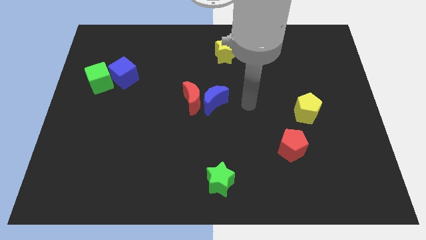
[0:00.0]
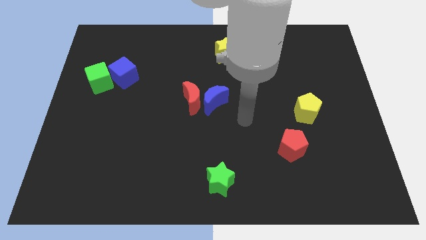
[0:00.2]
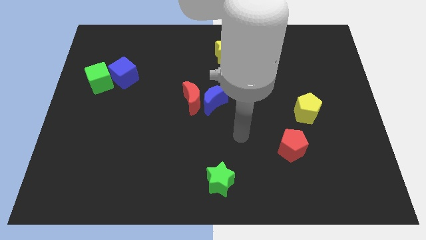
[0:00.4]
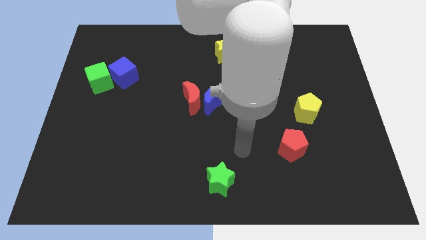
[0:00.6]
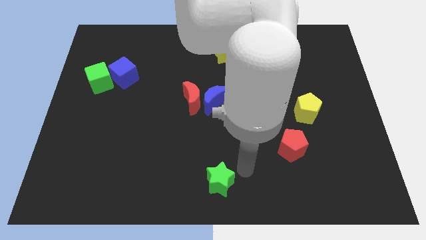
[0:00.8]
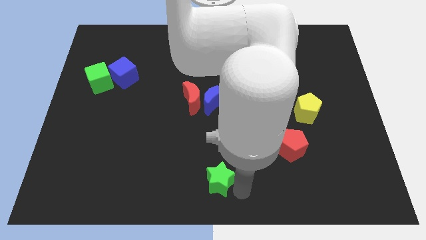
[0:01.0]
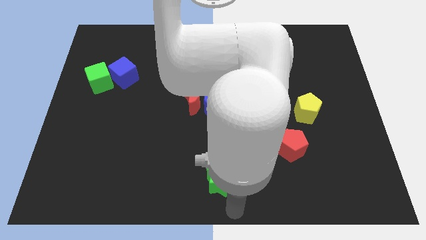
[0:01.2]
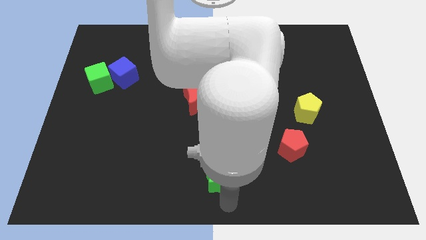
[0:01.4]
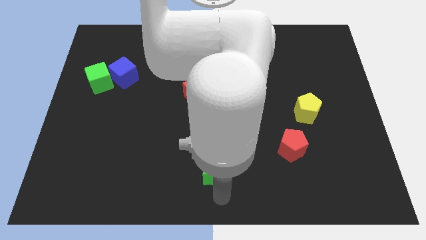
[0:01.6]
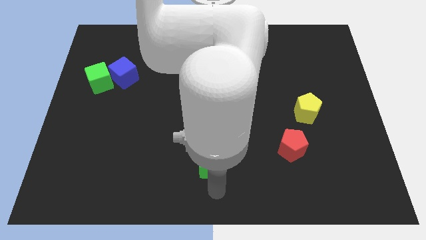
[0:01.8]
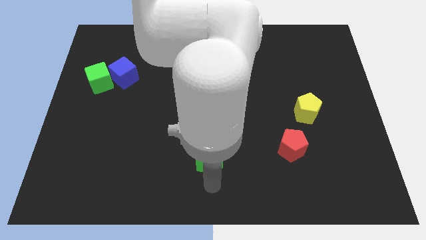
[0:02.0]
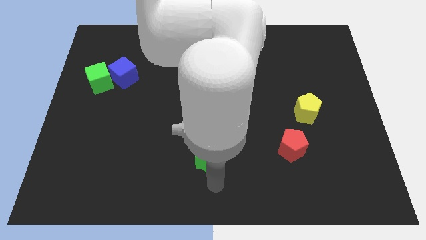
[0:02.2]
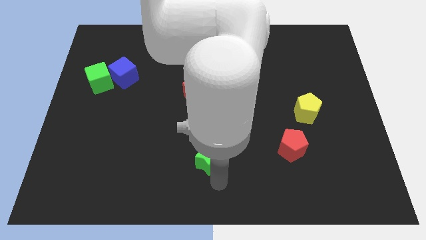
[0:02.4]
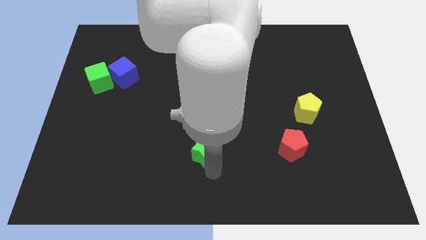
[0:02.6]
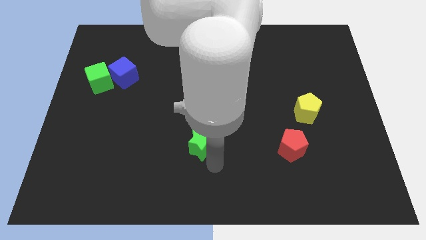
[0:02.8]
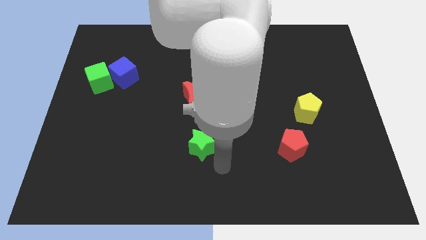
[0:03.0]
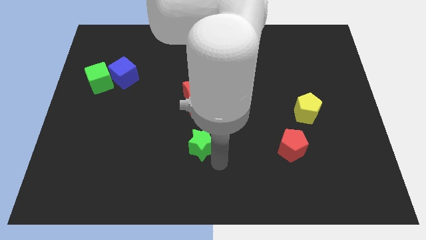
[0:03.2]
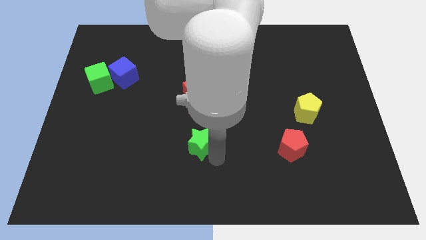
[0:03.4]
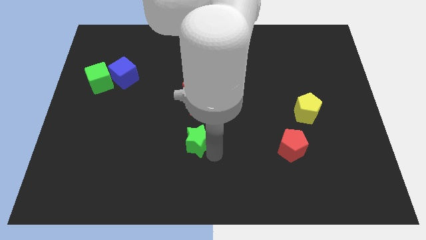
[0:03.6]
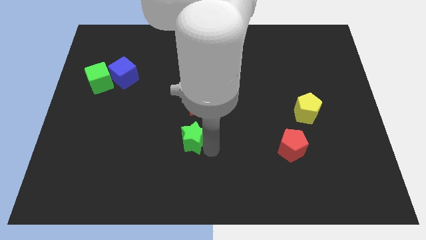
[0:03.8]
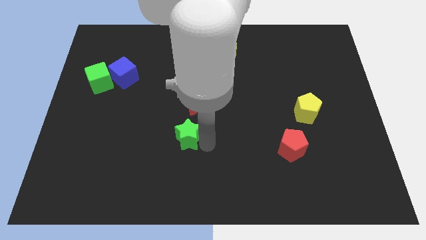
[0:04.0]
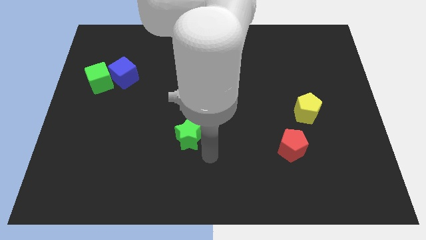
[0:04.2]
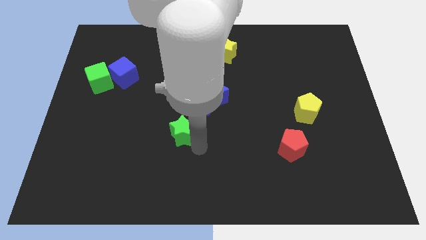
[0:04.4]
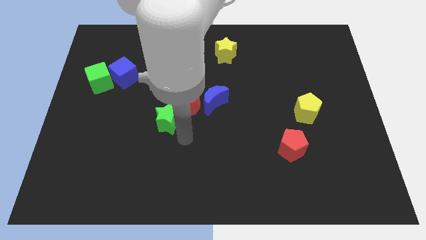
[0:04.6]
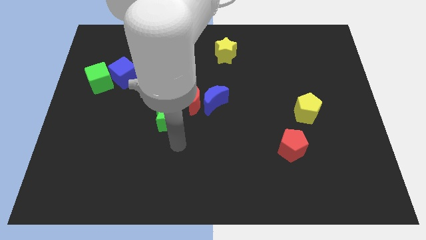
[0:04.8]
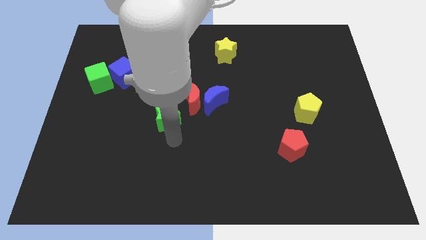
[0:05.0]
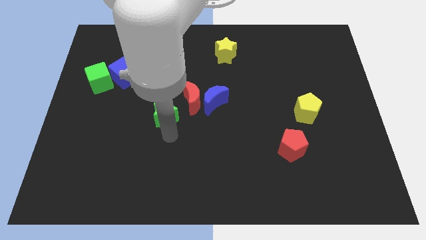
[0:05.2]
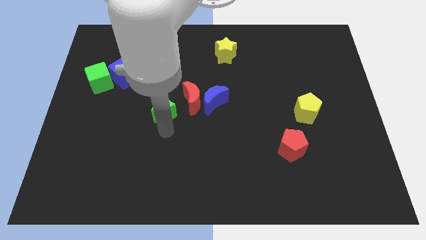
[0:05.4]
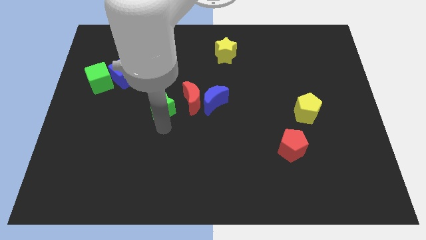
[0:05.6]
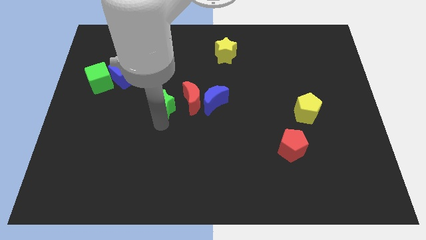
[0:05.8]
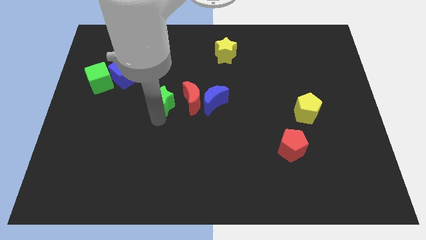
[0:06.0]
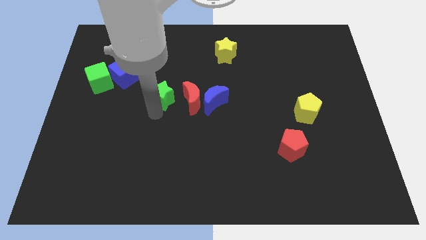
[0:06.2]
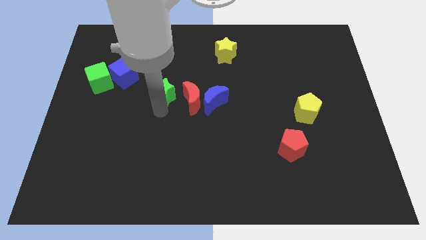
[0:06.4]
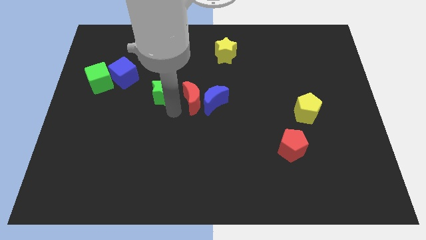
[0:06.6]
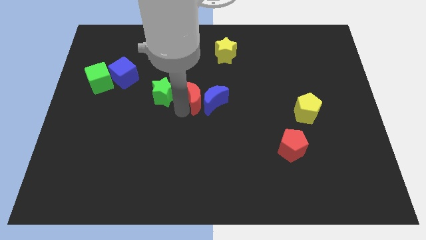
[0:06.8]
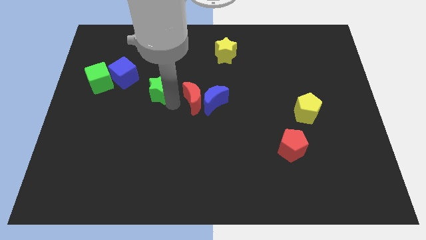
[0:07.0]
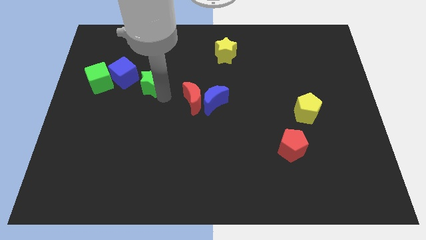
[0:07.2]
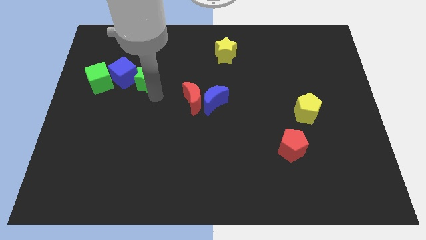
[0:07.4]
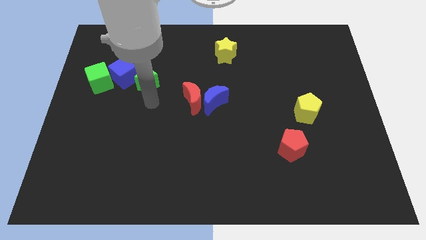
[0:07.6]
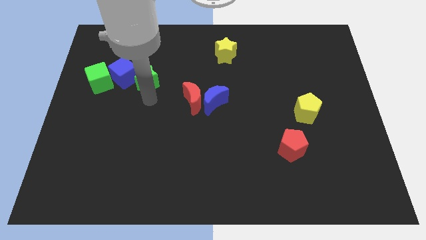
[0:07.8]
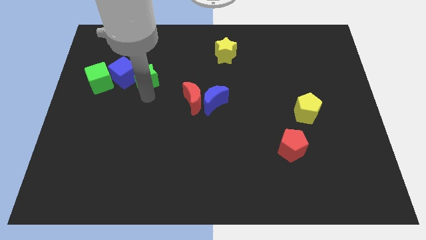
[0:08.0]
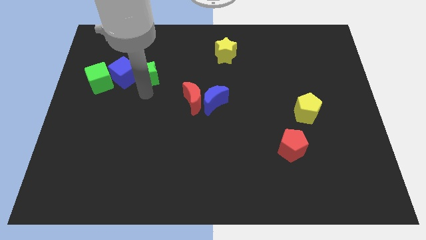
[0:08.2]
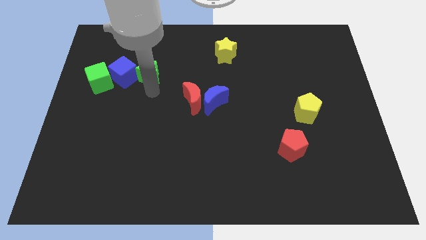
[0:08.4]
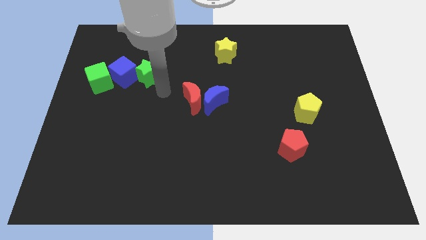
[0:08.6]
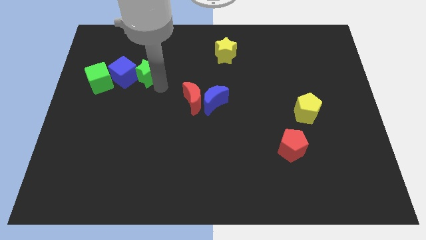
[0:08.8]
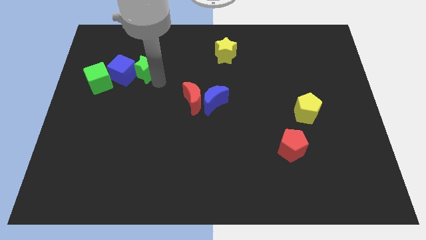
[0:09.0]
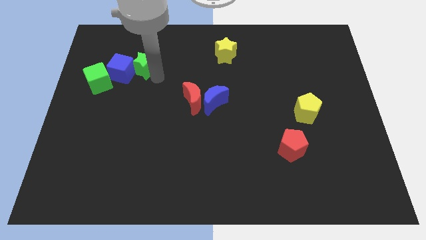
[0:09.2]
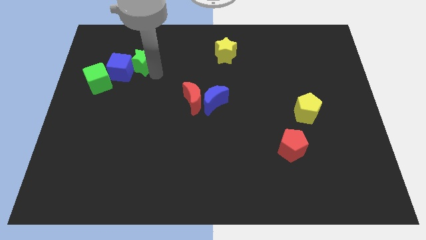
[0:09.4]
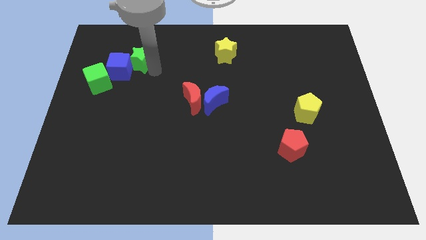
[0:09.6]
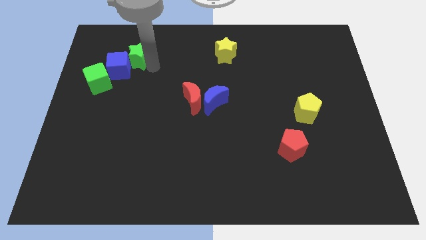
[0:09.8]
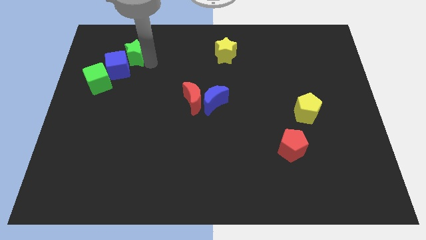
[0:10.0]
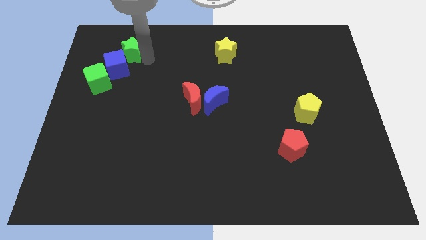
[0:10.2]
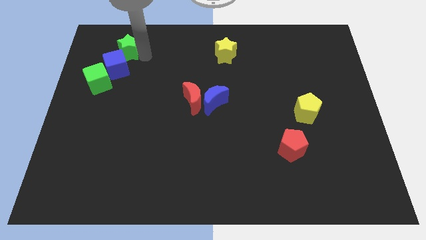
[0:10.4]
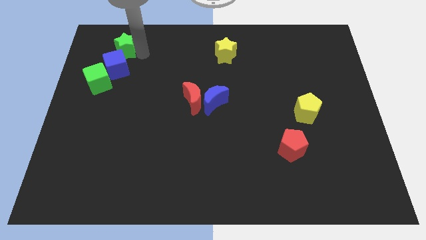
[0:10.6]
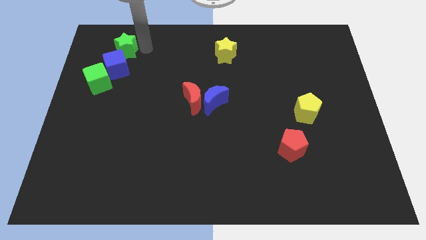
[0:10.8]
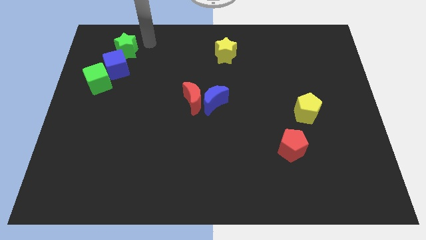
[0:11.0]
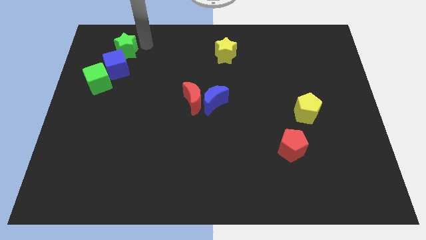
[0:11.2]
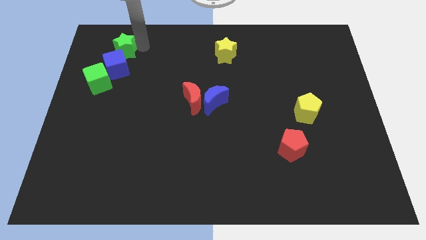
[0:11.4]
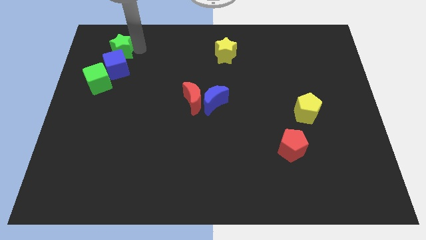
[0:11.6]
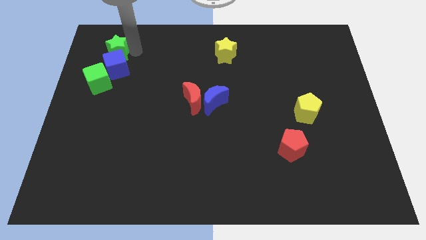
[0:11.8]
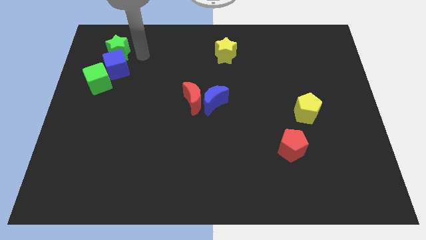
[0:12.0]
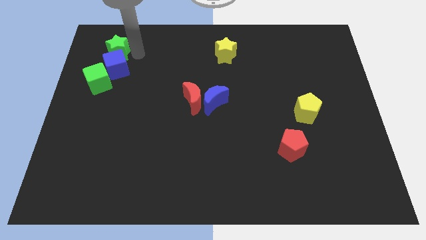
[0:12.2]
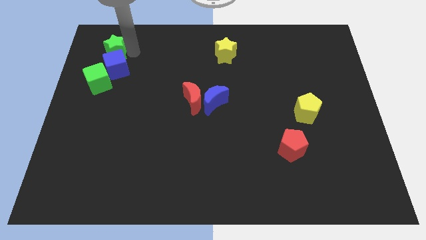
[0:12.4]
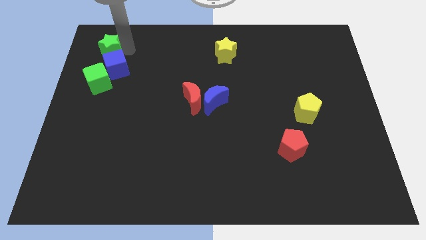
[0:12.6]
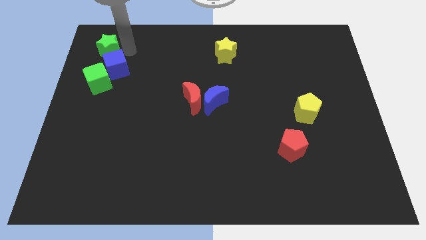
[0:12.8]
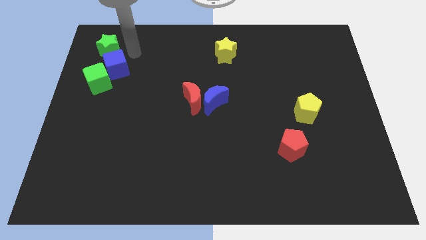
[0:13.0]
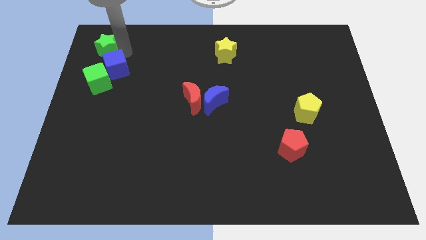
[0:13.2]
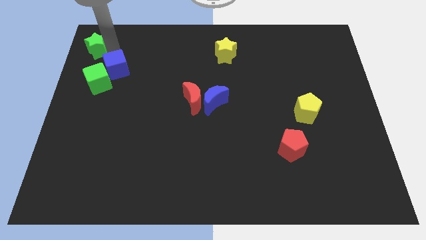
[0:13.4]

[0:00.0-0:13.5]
push the green star to the top left of the board
